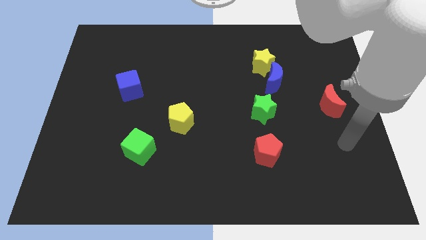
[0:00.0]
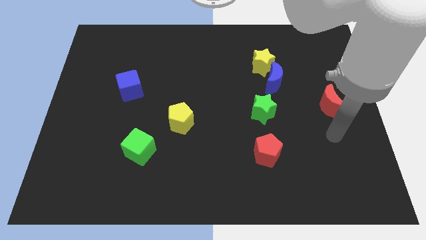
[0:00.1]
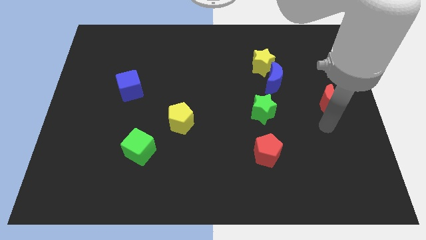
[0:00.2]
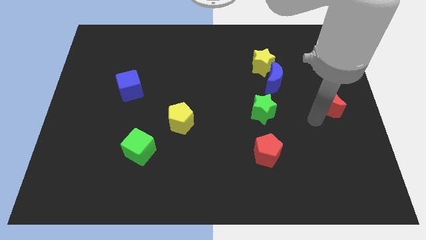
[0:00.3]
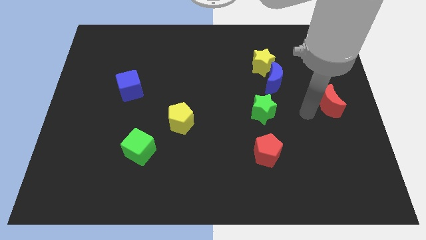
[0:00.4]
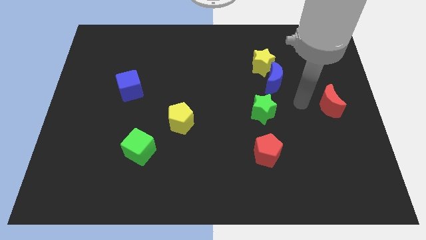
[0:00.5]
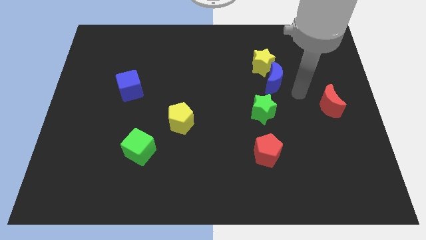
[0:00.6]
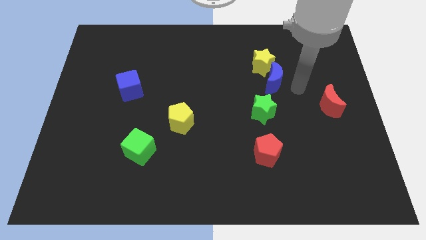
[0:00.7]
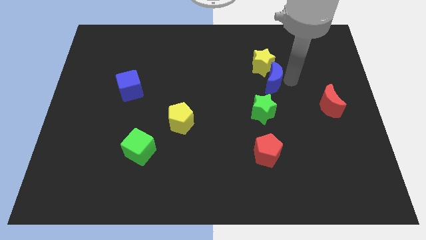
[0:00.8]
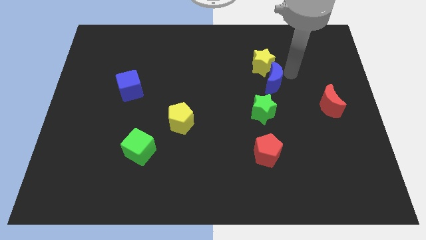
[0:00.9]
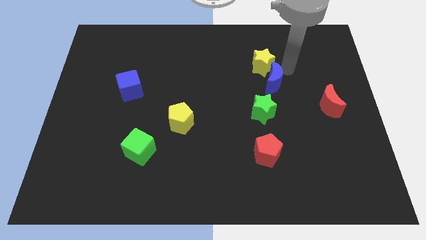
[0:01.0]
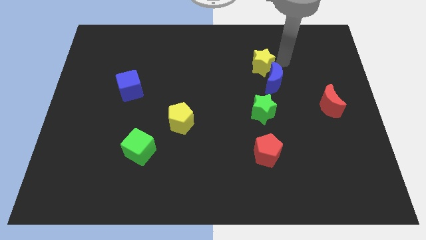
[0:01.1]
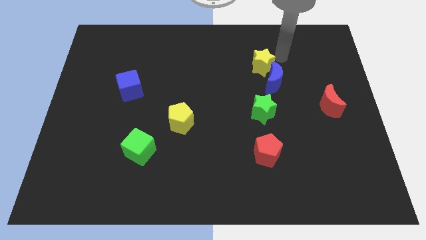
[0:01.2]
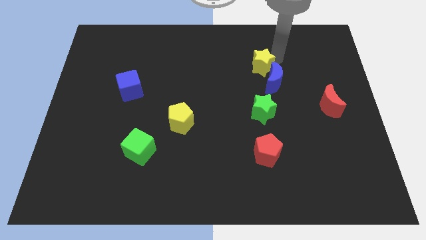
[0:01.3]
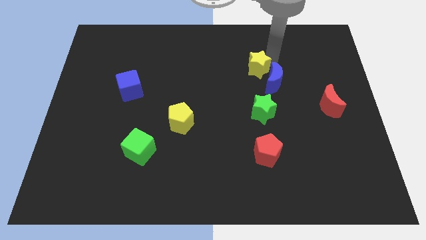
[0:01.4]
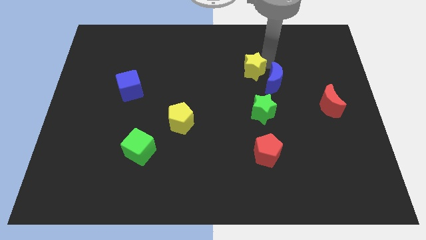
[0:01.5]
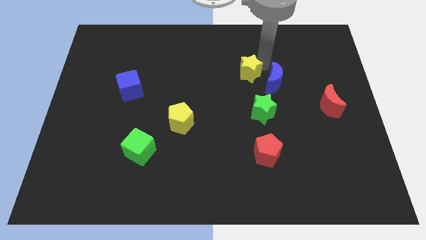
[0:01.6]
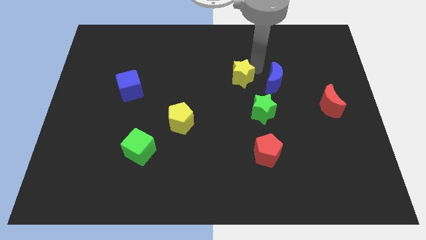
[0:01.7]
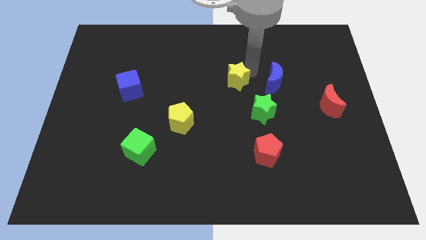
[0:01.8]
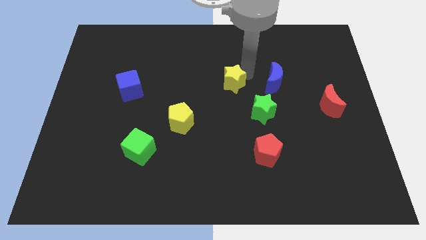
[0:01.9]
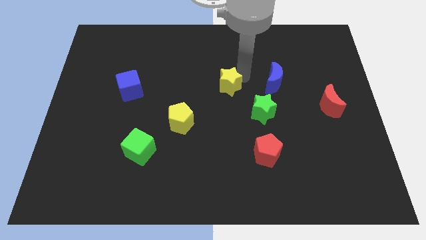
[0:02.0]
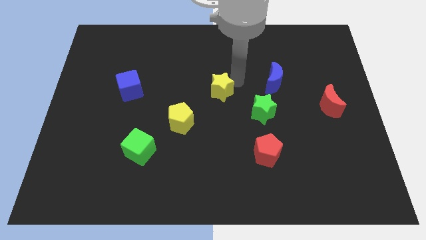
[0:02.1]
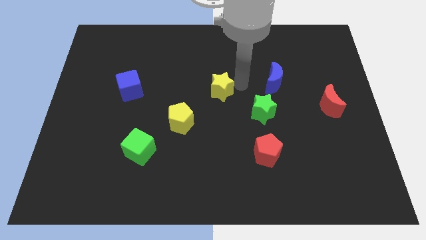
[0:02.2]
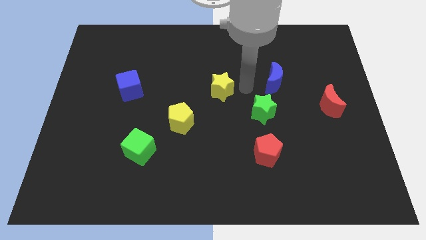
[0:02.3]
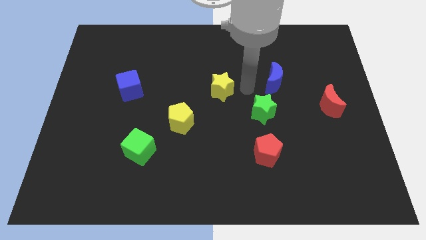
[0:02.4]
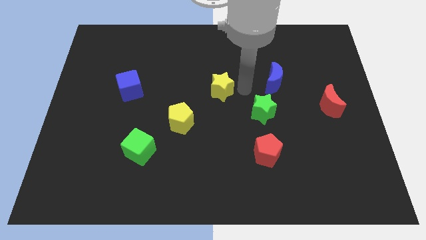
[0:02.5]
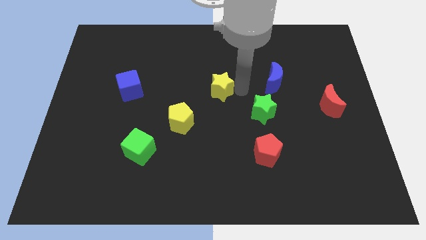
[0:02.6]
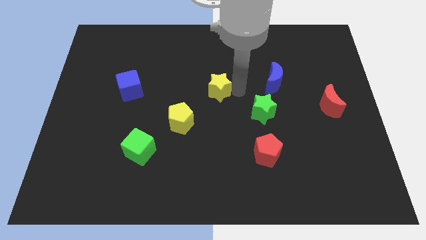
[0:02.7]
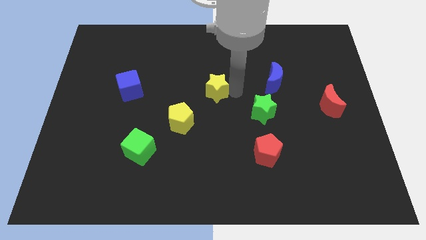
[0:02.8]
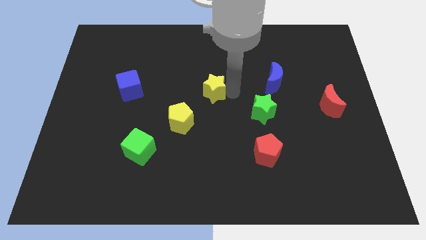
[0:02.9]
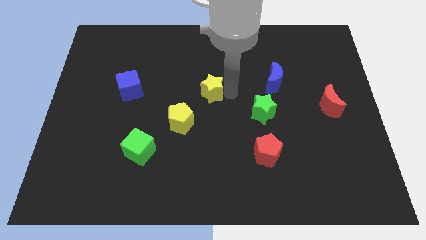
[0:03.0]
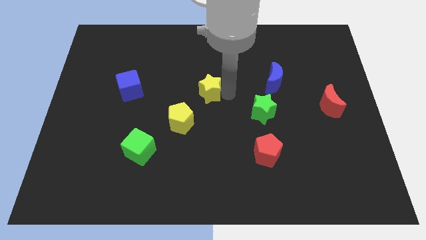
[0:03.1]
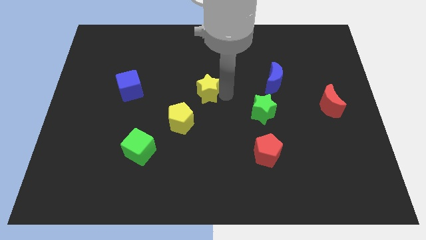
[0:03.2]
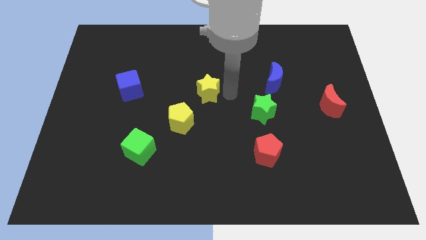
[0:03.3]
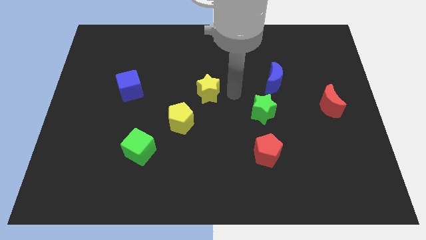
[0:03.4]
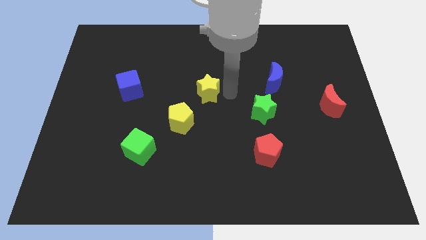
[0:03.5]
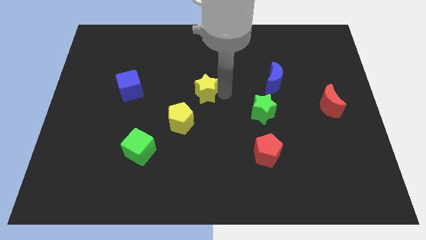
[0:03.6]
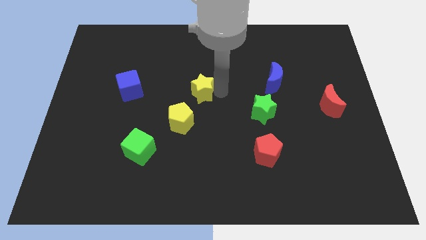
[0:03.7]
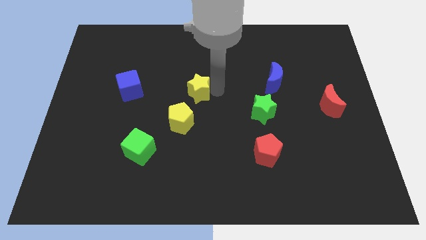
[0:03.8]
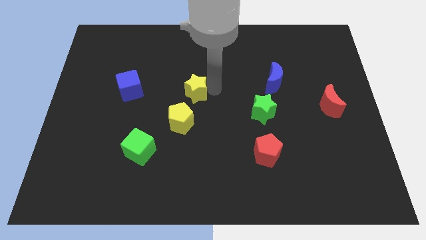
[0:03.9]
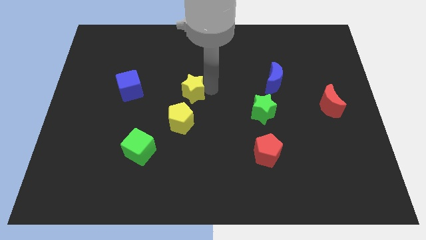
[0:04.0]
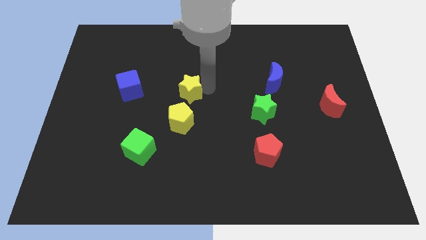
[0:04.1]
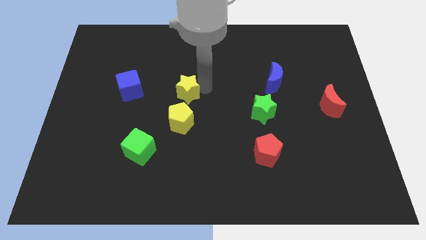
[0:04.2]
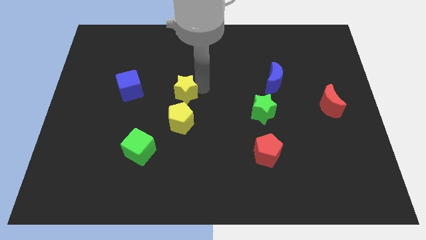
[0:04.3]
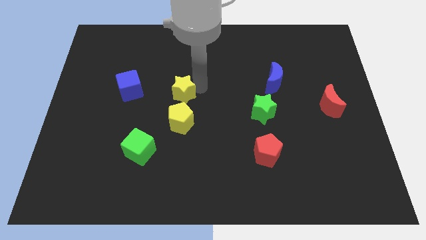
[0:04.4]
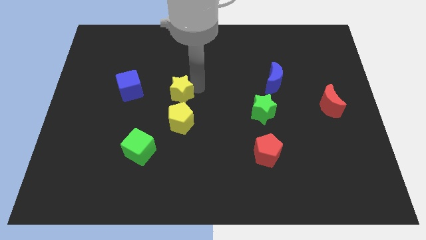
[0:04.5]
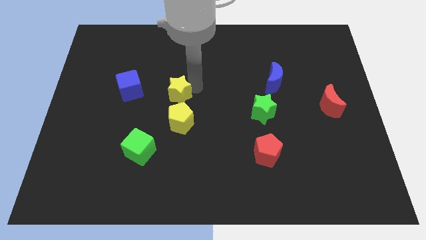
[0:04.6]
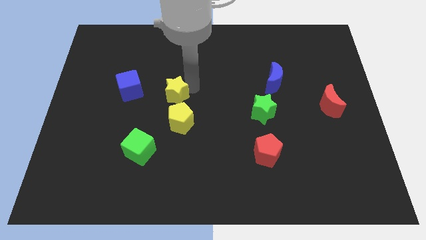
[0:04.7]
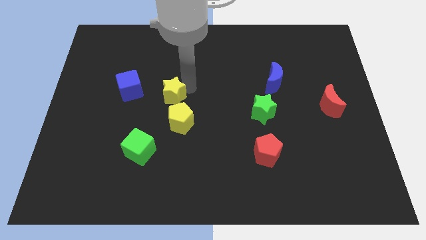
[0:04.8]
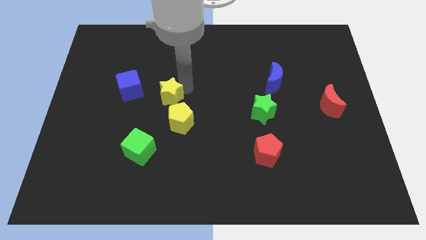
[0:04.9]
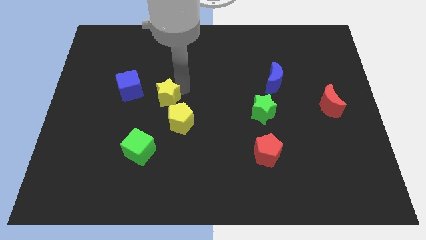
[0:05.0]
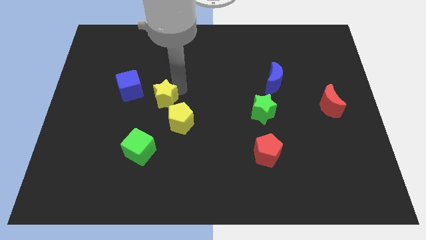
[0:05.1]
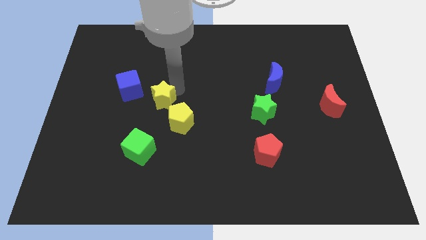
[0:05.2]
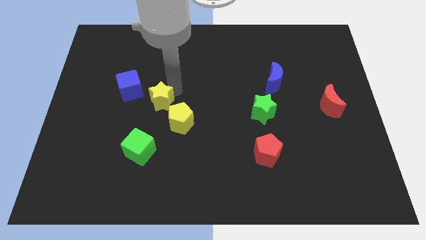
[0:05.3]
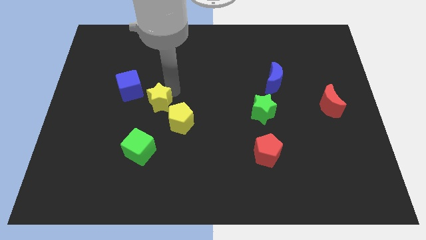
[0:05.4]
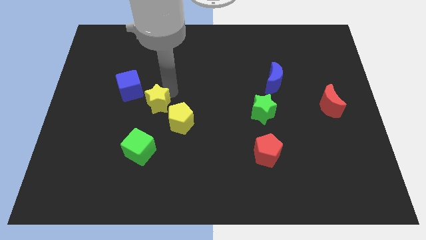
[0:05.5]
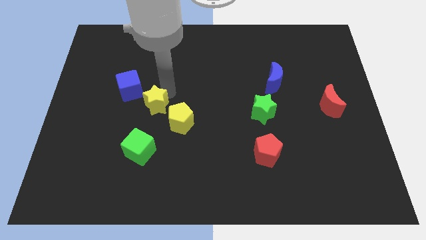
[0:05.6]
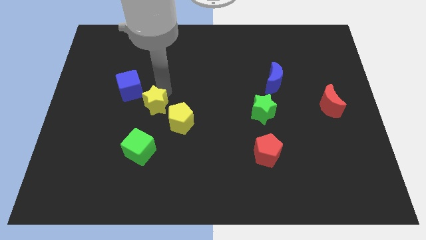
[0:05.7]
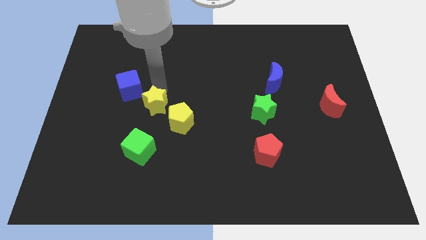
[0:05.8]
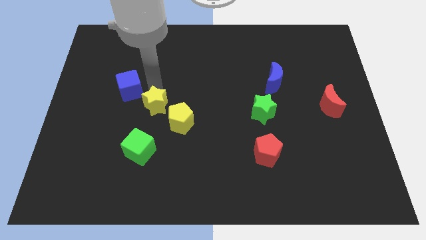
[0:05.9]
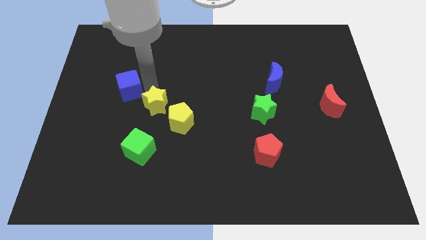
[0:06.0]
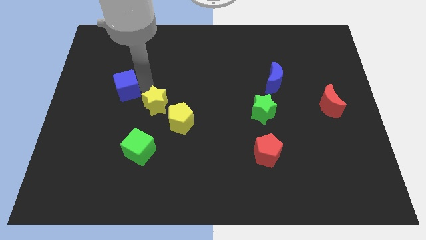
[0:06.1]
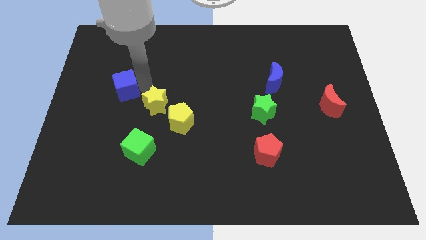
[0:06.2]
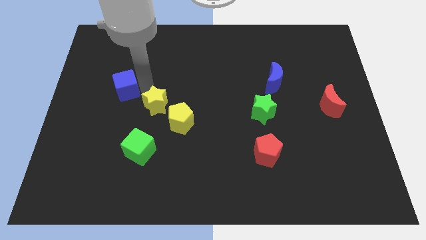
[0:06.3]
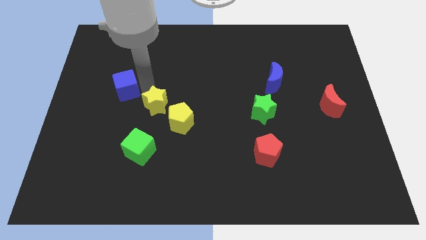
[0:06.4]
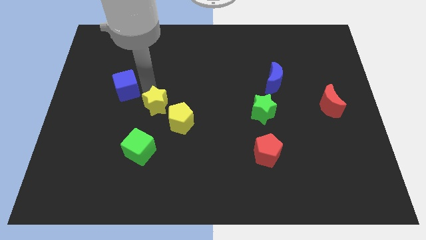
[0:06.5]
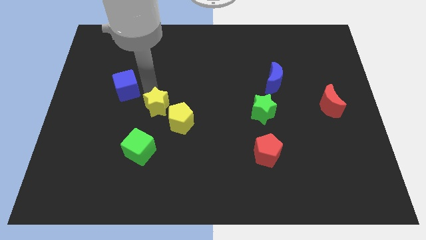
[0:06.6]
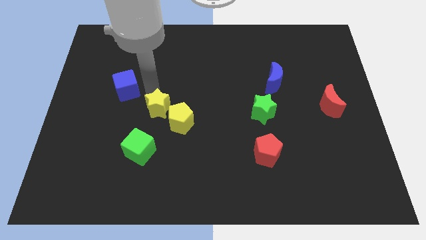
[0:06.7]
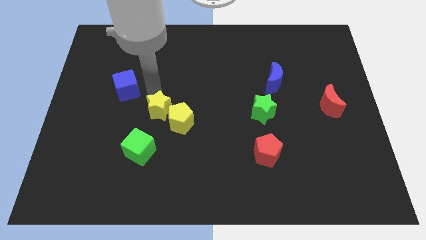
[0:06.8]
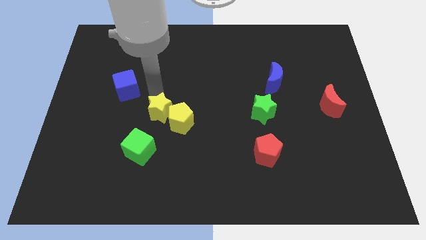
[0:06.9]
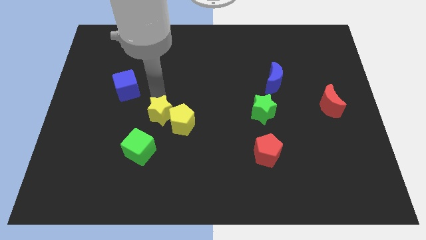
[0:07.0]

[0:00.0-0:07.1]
move the yellow star to the top right of the green cube
